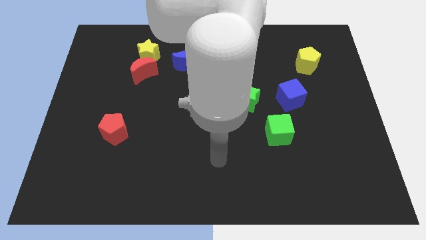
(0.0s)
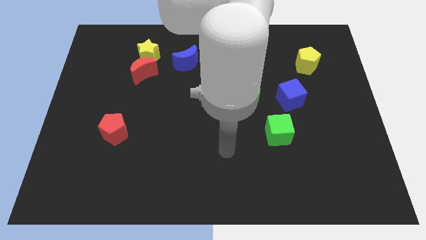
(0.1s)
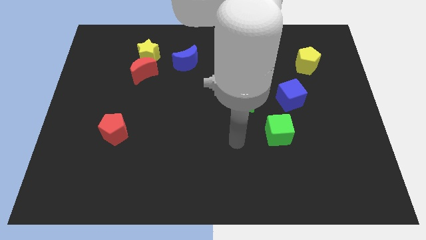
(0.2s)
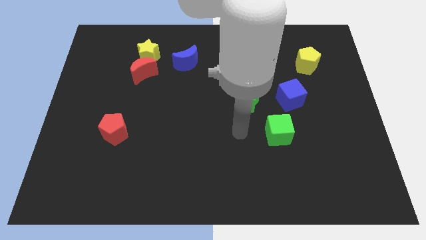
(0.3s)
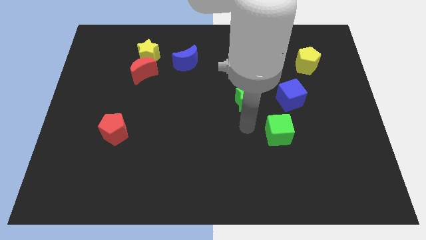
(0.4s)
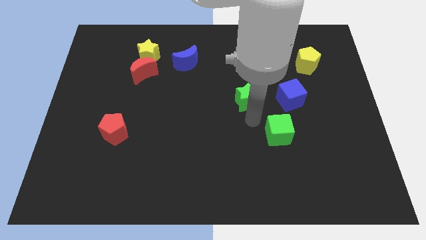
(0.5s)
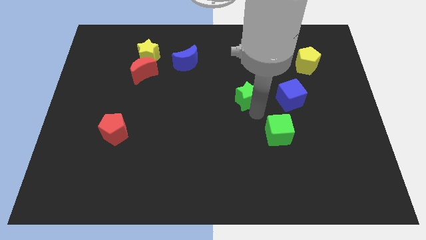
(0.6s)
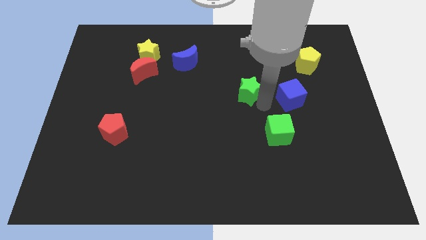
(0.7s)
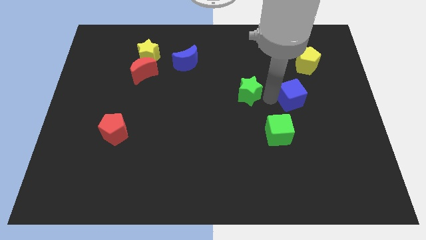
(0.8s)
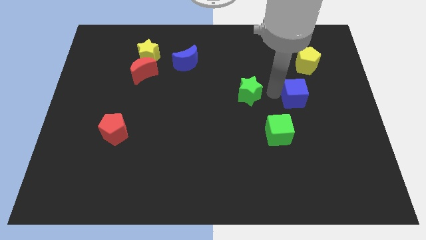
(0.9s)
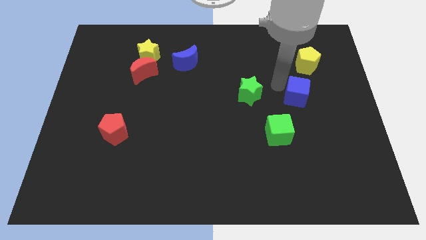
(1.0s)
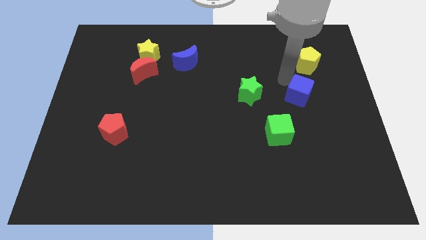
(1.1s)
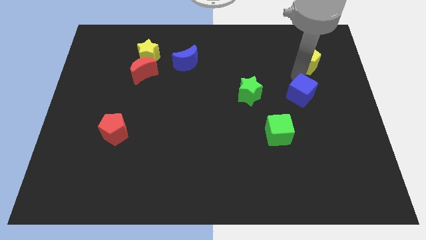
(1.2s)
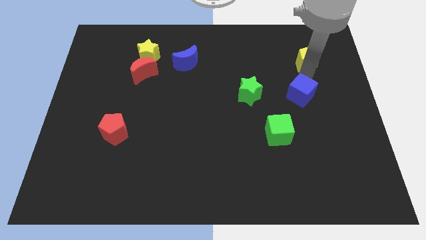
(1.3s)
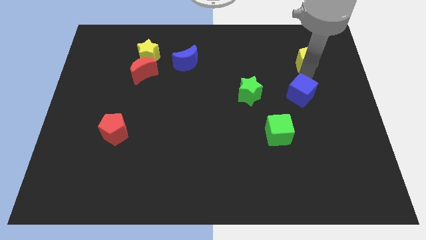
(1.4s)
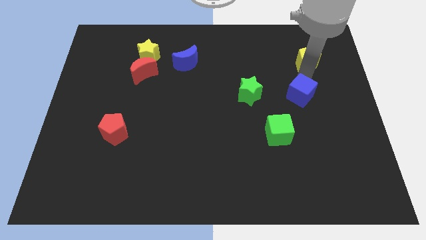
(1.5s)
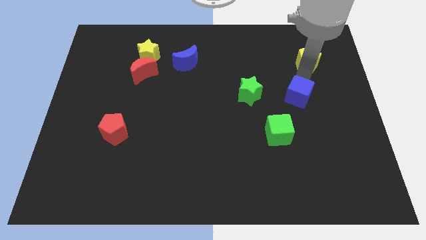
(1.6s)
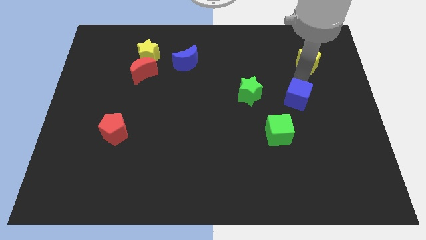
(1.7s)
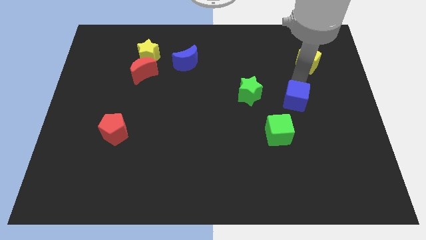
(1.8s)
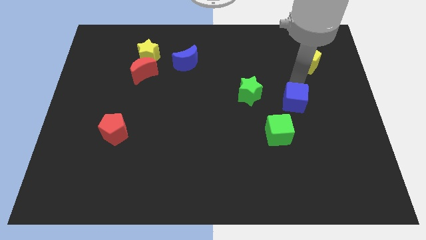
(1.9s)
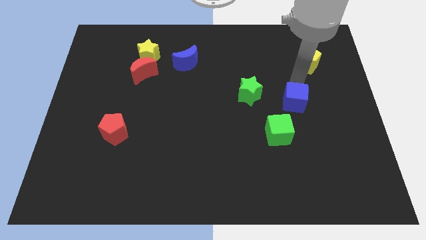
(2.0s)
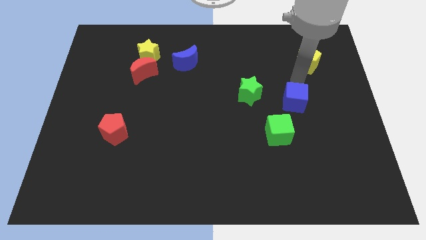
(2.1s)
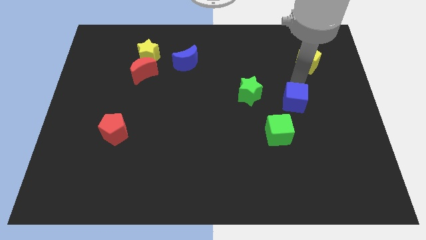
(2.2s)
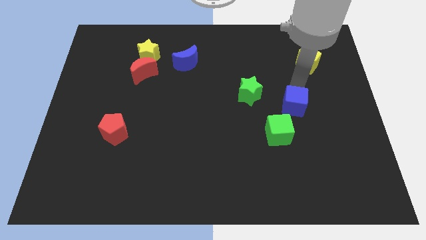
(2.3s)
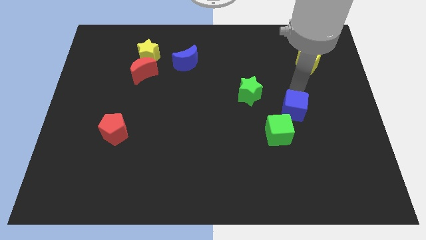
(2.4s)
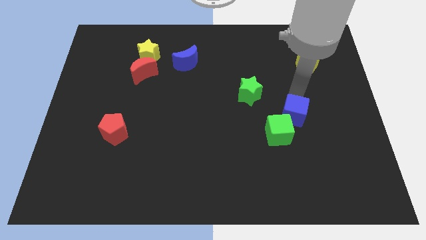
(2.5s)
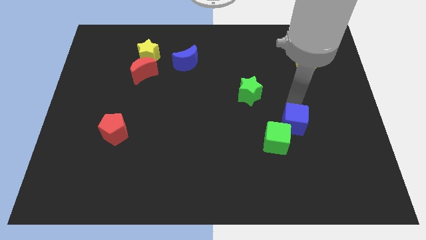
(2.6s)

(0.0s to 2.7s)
push the blue cube a little downwards

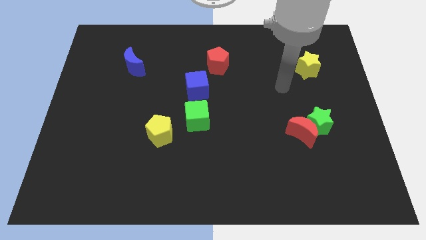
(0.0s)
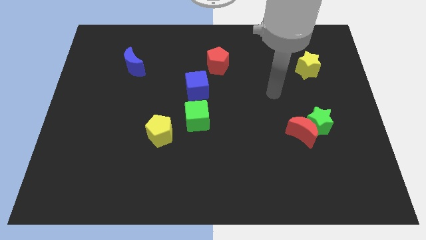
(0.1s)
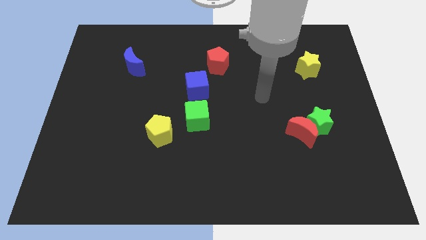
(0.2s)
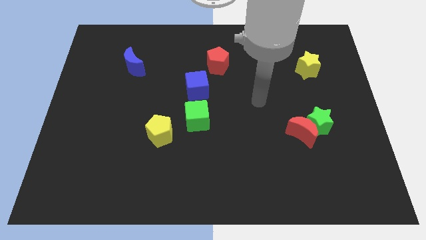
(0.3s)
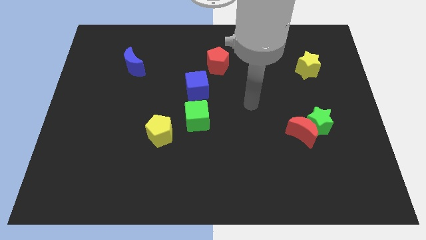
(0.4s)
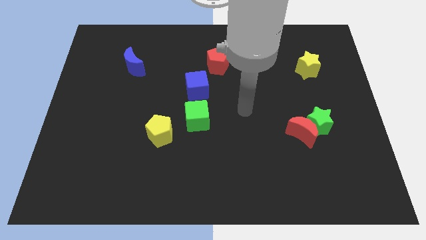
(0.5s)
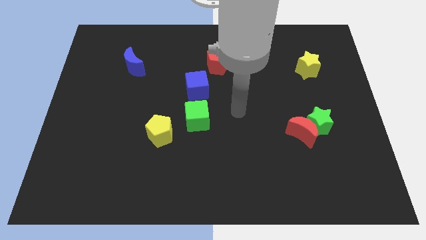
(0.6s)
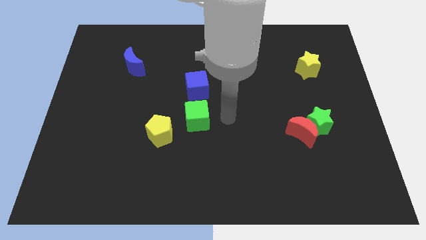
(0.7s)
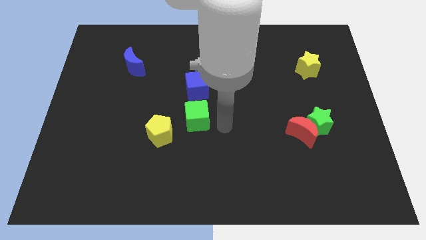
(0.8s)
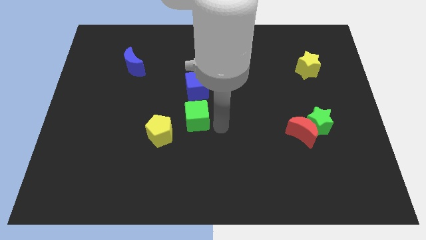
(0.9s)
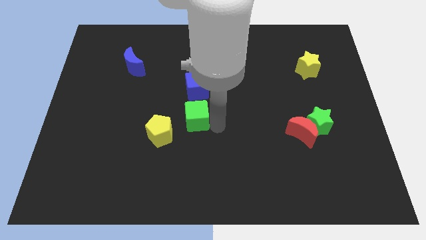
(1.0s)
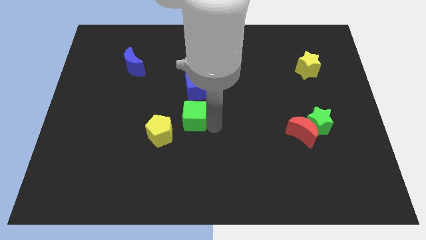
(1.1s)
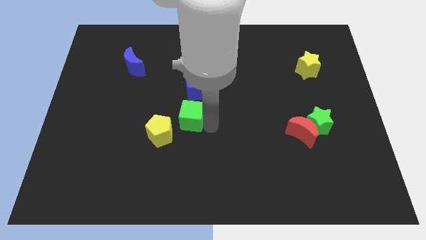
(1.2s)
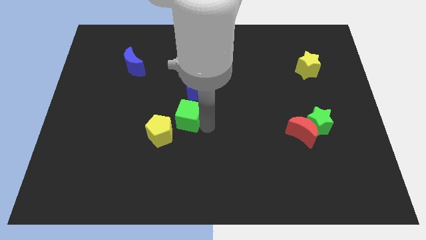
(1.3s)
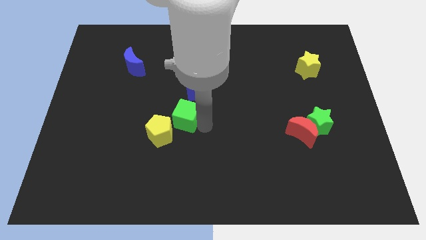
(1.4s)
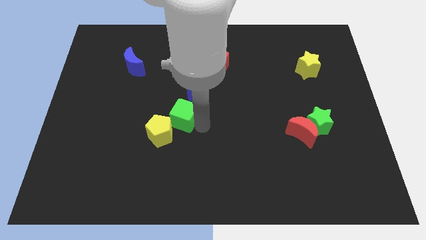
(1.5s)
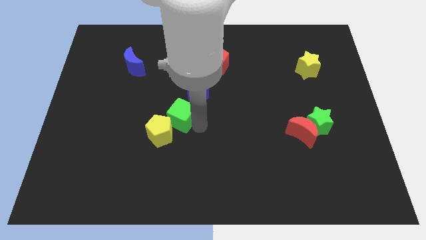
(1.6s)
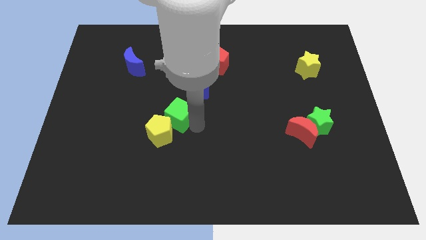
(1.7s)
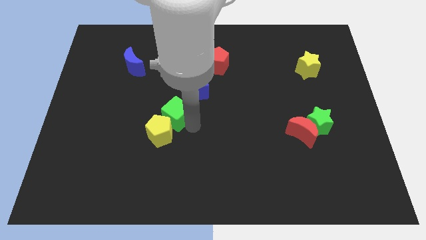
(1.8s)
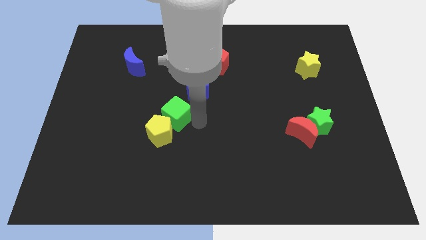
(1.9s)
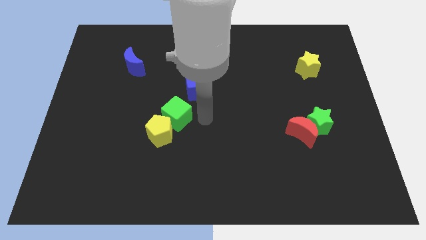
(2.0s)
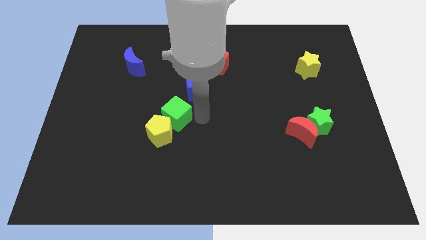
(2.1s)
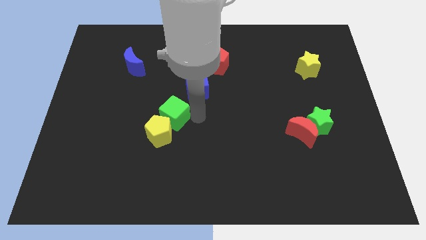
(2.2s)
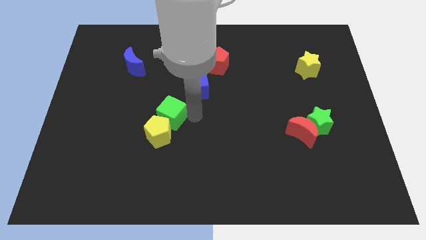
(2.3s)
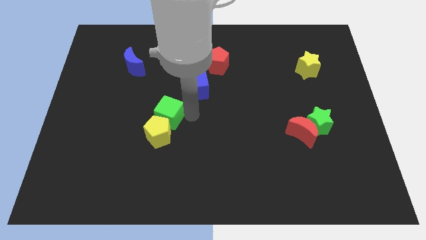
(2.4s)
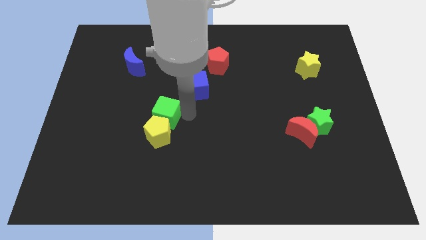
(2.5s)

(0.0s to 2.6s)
slide the green cube left a bit

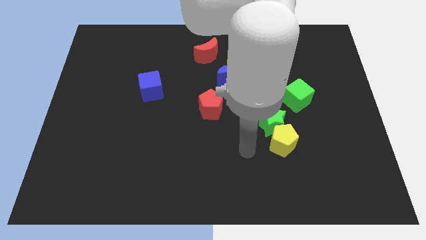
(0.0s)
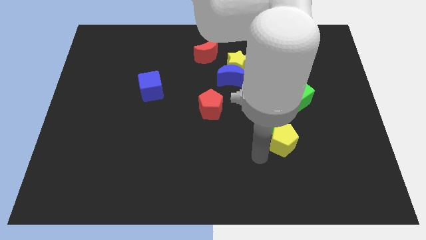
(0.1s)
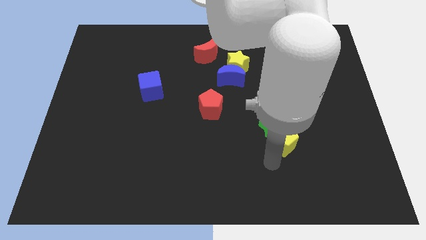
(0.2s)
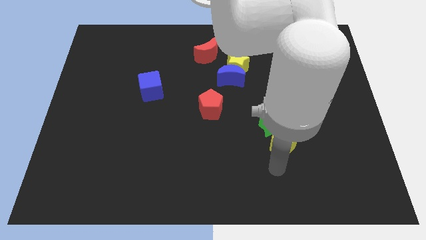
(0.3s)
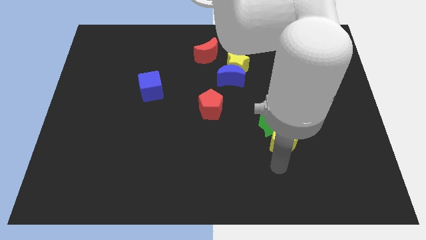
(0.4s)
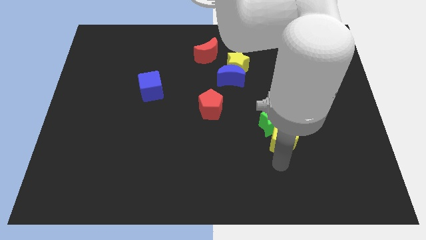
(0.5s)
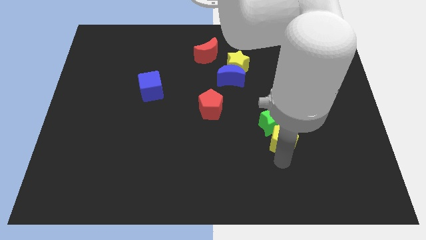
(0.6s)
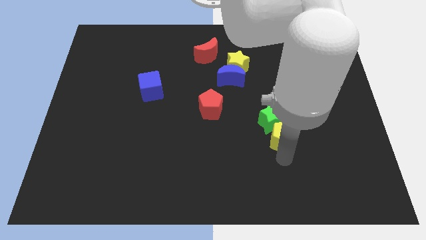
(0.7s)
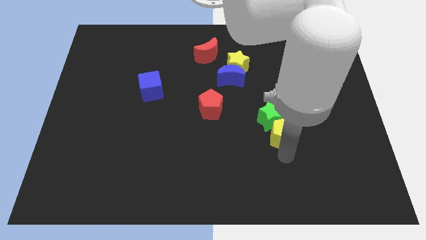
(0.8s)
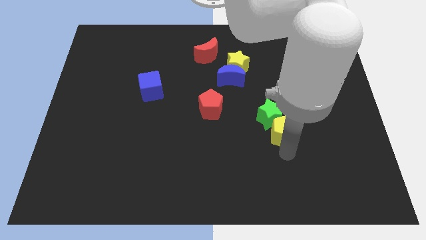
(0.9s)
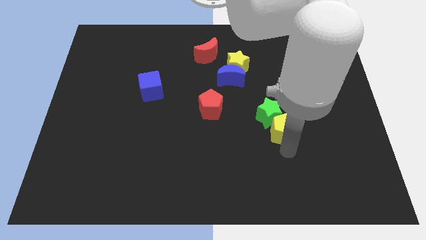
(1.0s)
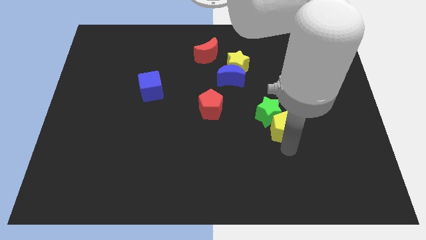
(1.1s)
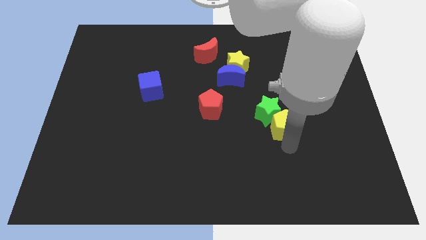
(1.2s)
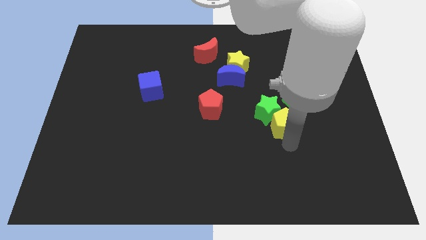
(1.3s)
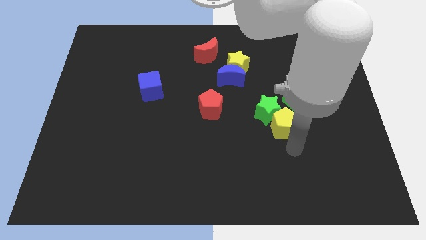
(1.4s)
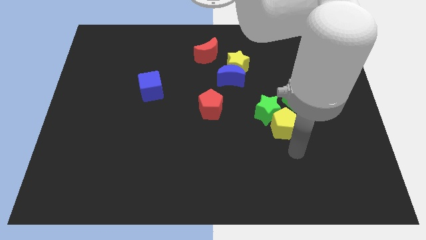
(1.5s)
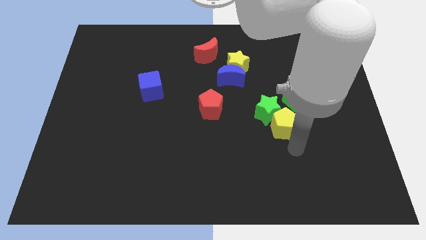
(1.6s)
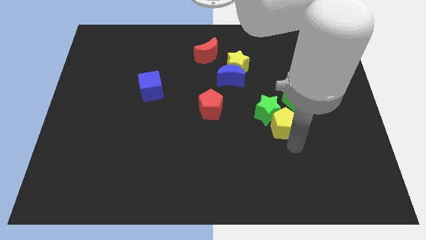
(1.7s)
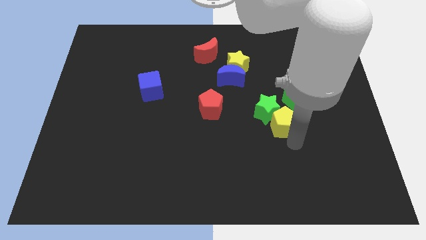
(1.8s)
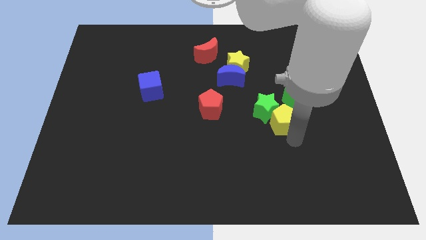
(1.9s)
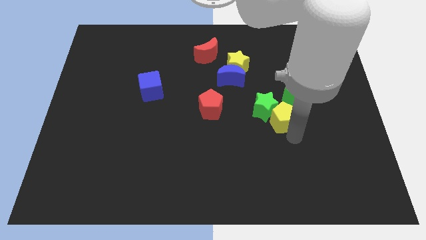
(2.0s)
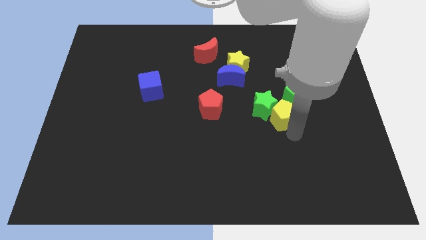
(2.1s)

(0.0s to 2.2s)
slightly push the yellow pentagon upwards

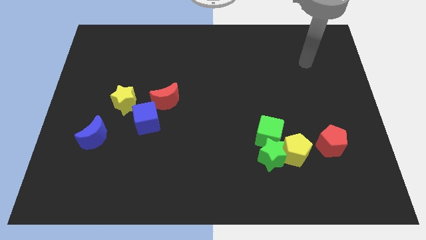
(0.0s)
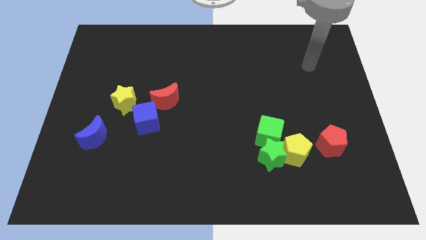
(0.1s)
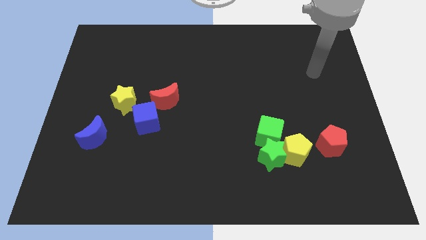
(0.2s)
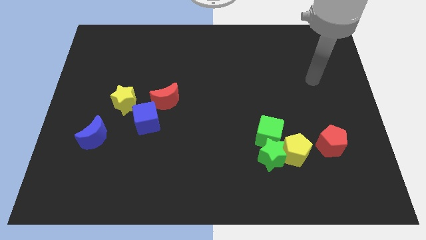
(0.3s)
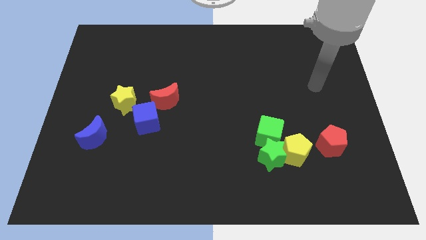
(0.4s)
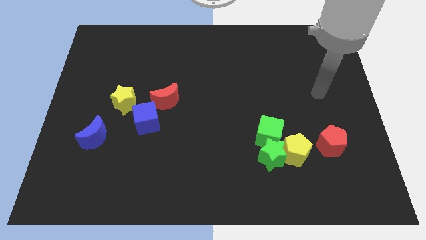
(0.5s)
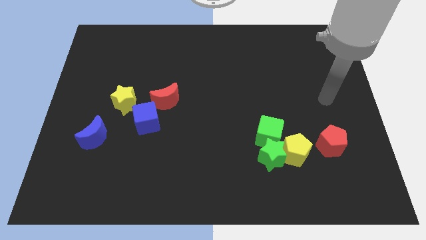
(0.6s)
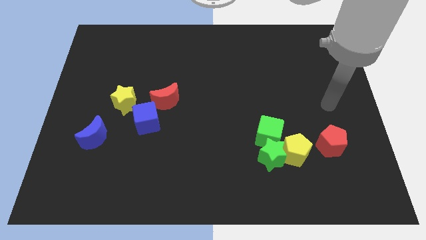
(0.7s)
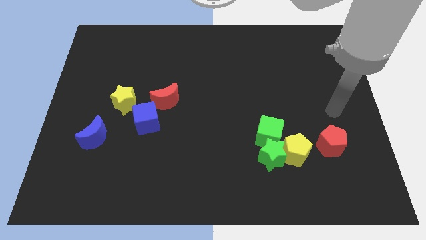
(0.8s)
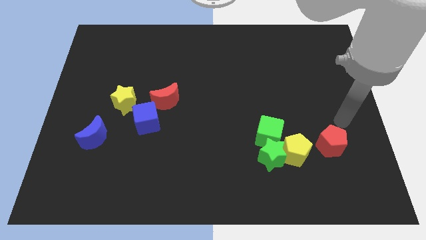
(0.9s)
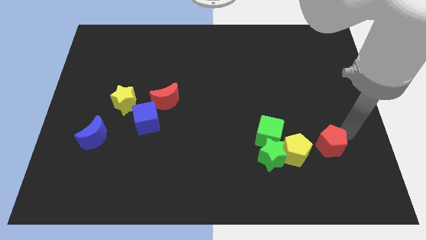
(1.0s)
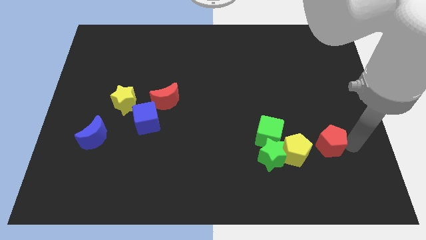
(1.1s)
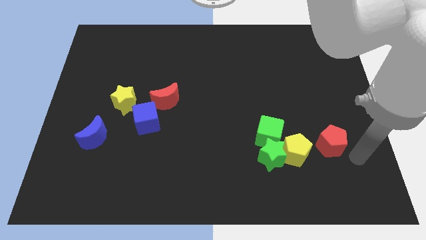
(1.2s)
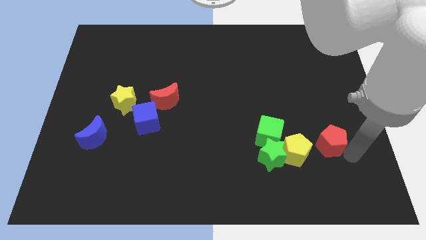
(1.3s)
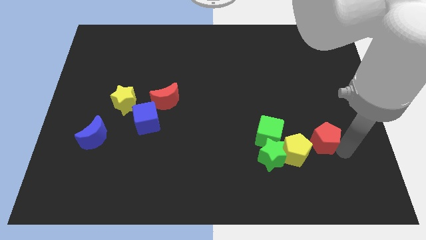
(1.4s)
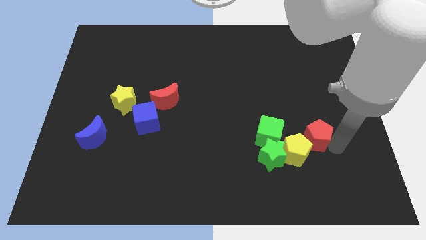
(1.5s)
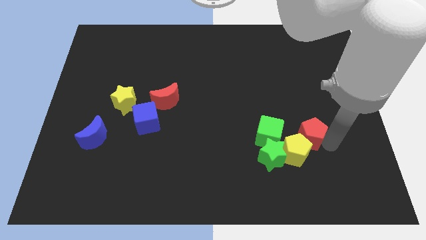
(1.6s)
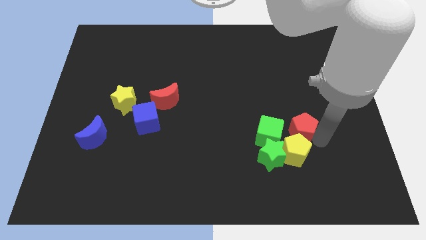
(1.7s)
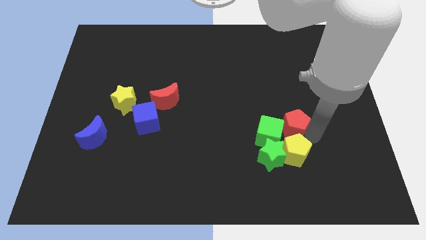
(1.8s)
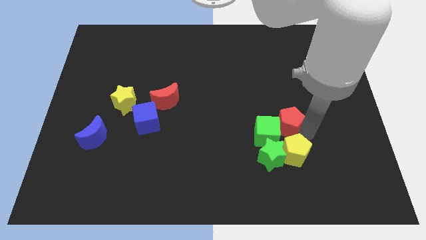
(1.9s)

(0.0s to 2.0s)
push the red pentagon a little bit to the left
